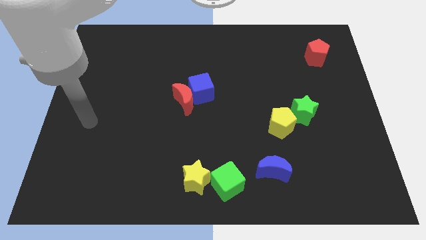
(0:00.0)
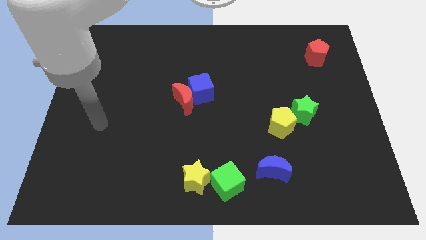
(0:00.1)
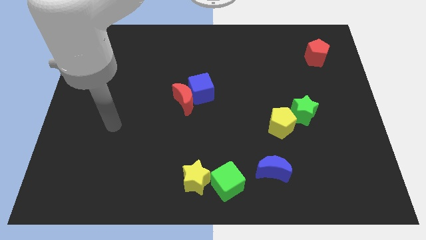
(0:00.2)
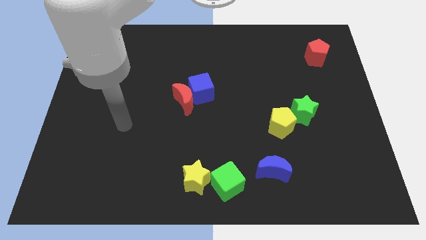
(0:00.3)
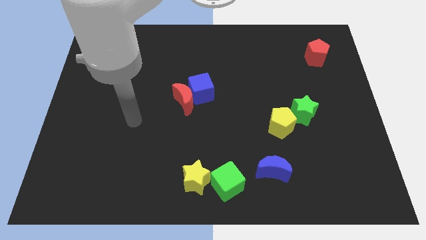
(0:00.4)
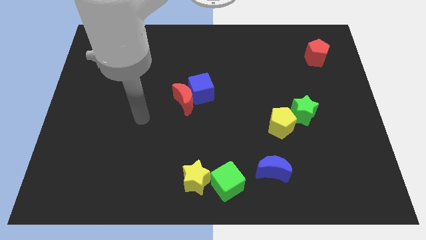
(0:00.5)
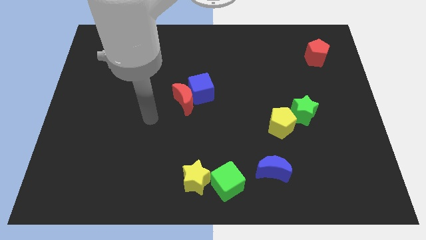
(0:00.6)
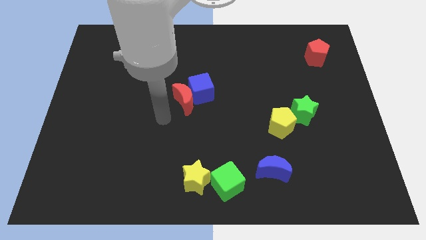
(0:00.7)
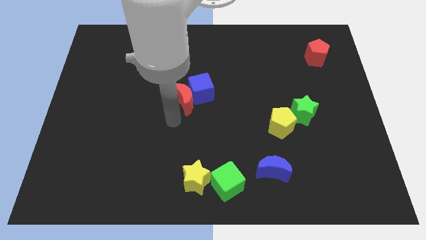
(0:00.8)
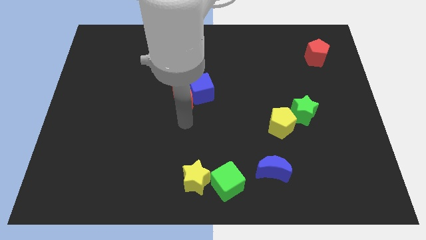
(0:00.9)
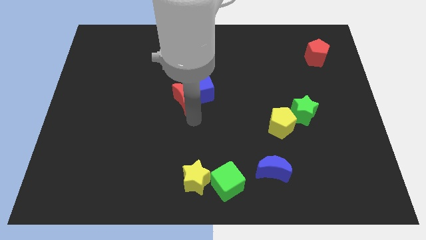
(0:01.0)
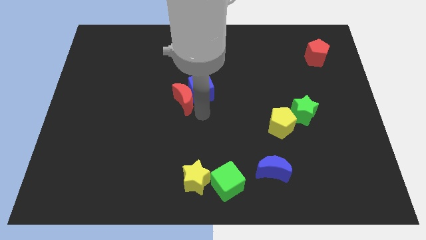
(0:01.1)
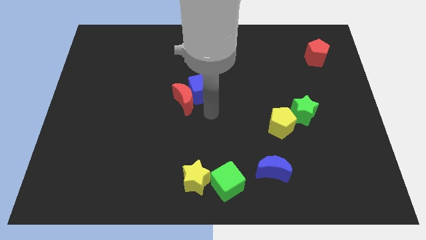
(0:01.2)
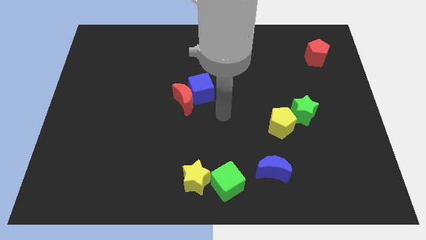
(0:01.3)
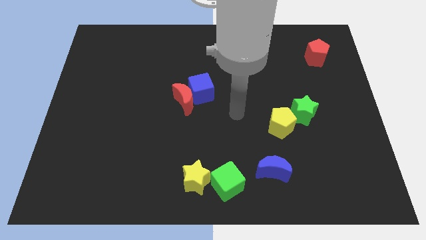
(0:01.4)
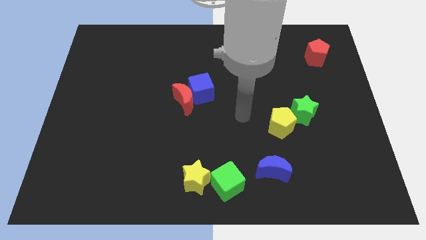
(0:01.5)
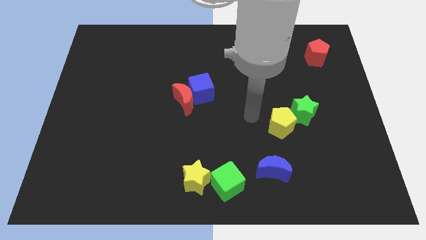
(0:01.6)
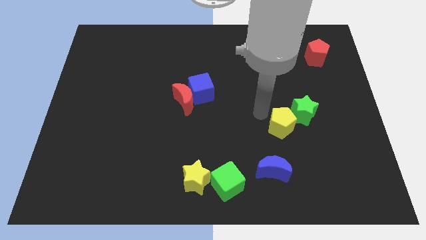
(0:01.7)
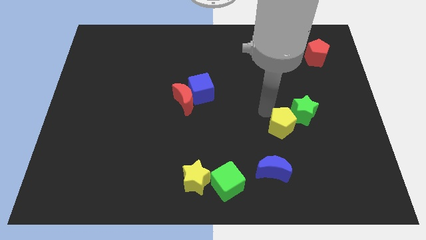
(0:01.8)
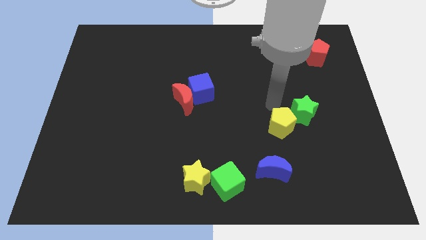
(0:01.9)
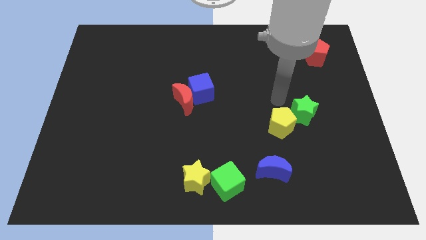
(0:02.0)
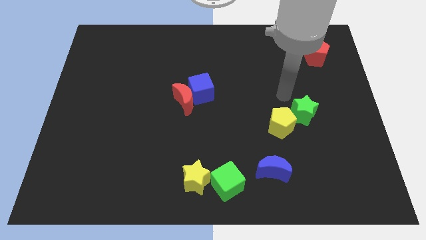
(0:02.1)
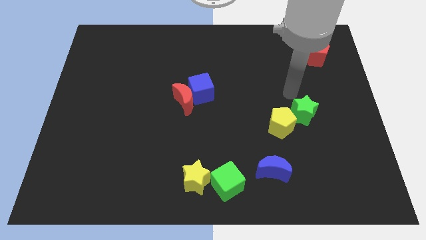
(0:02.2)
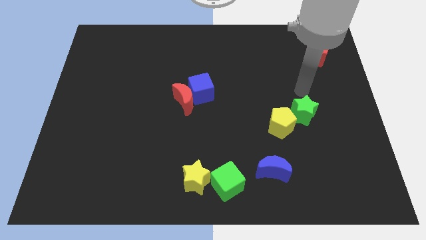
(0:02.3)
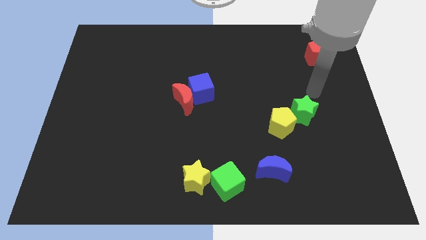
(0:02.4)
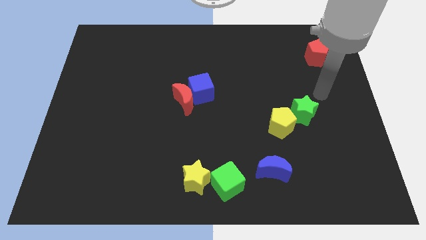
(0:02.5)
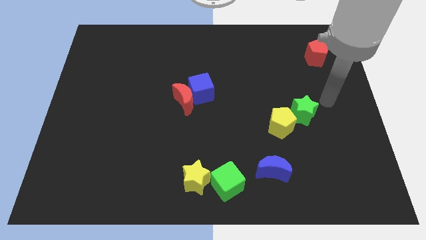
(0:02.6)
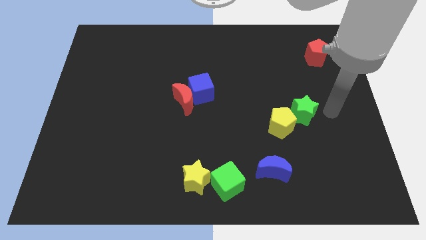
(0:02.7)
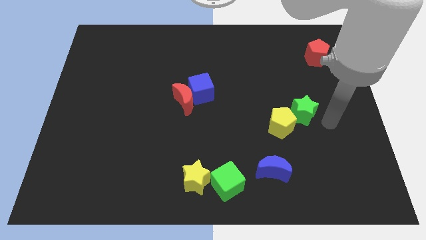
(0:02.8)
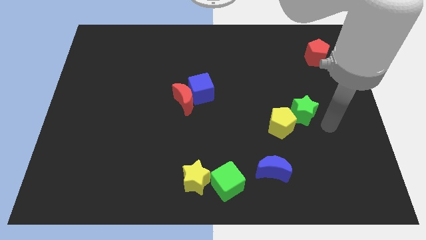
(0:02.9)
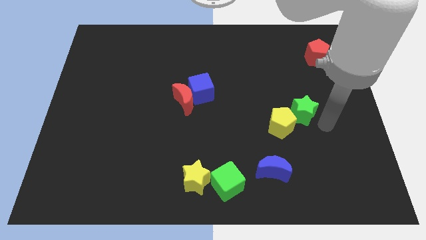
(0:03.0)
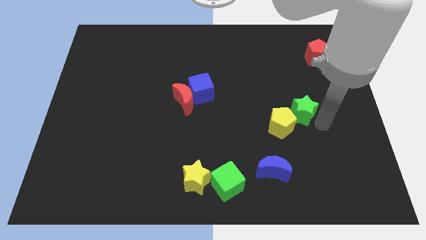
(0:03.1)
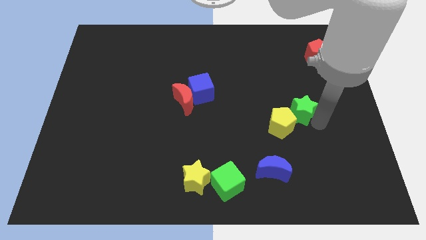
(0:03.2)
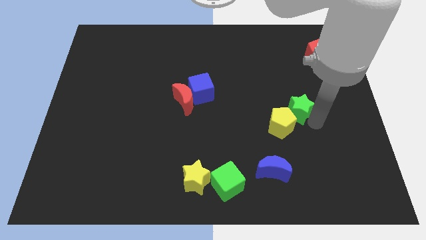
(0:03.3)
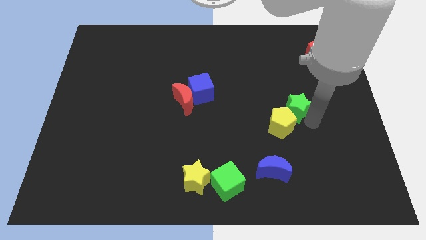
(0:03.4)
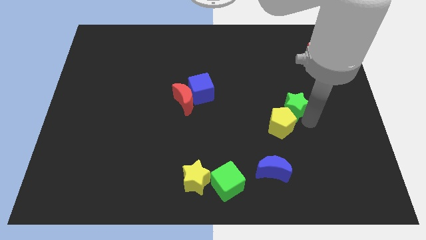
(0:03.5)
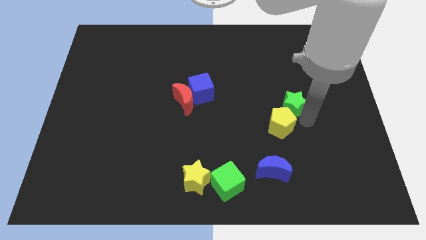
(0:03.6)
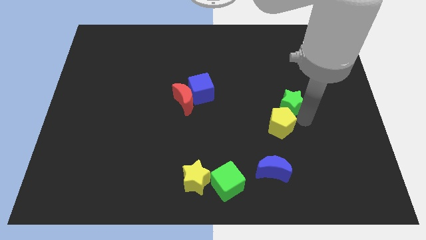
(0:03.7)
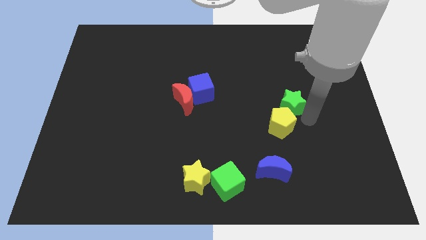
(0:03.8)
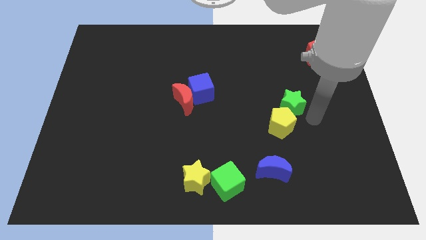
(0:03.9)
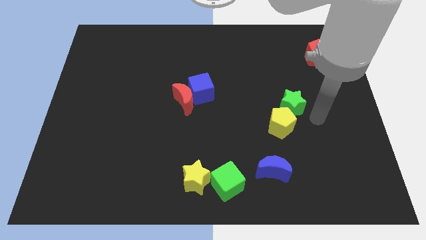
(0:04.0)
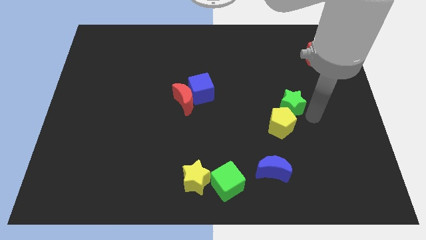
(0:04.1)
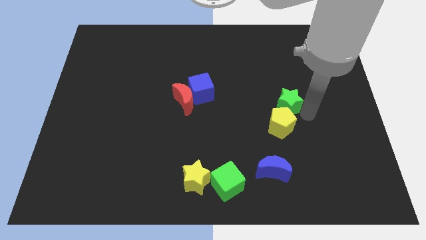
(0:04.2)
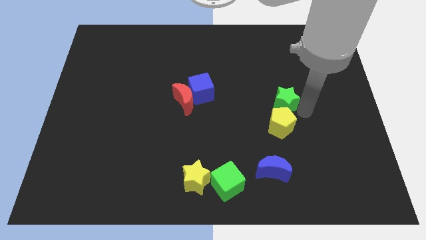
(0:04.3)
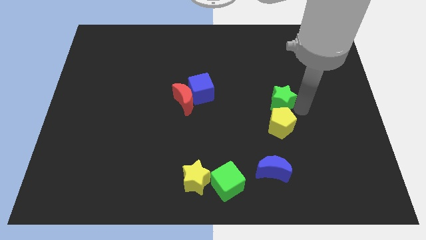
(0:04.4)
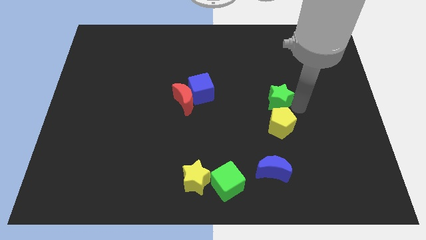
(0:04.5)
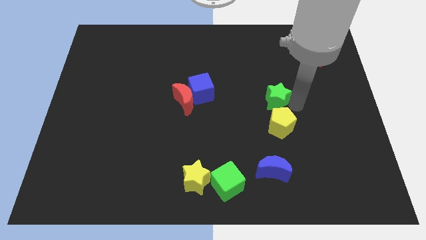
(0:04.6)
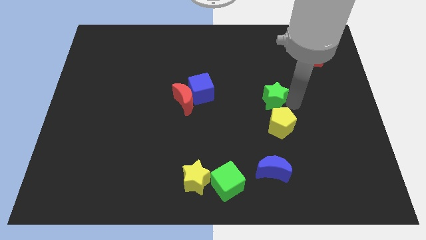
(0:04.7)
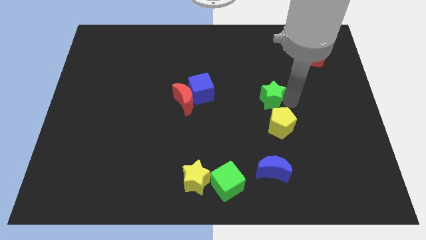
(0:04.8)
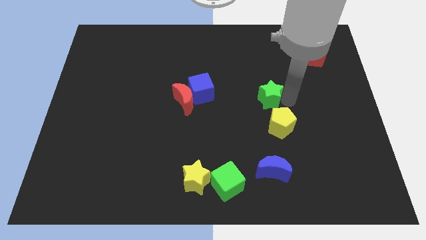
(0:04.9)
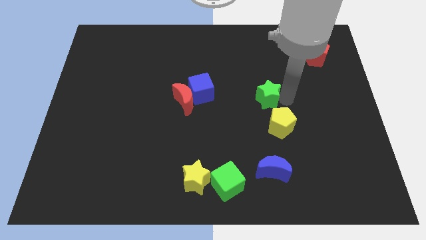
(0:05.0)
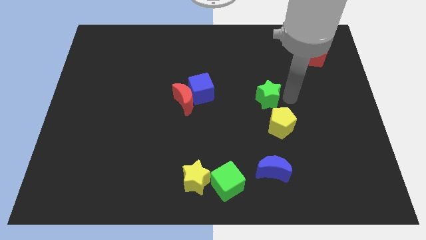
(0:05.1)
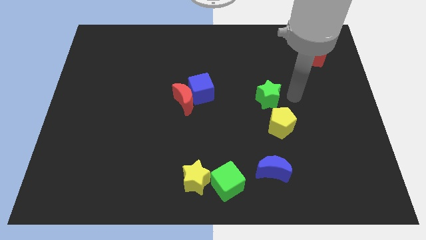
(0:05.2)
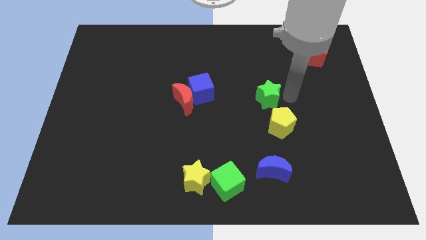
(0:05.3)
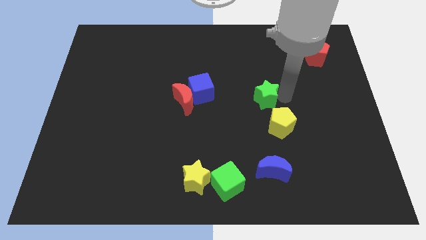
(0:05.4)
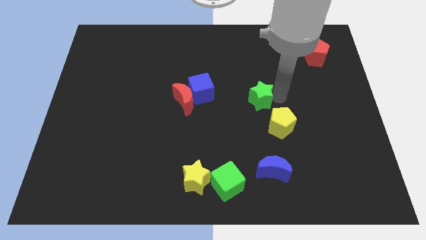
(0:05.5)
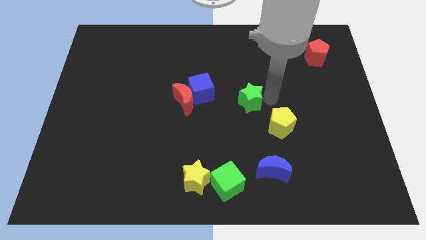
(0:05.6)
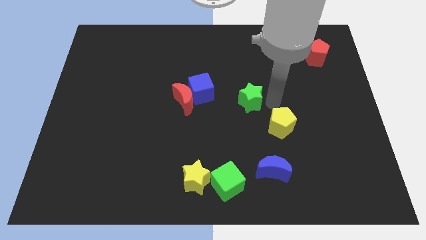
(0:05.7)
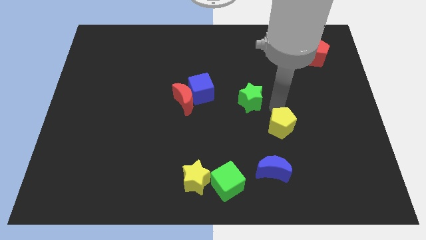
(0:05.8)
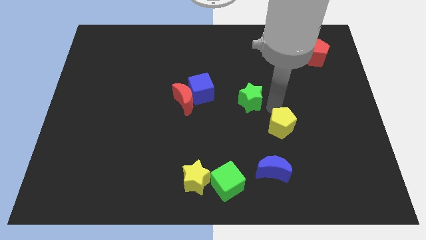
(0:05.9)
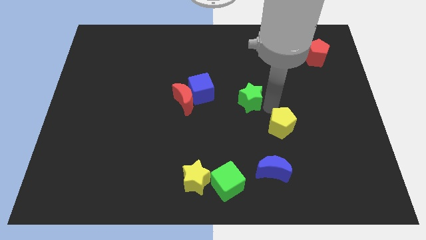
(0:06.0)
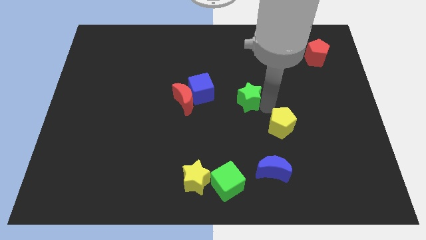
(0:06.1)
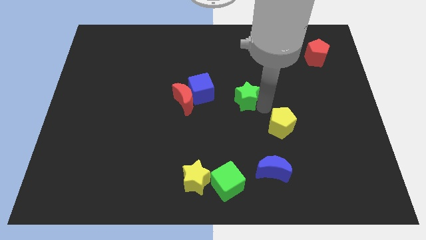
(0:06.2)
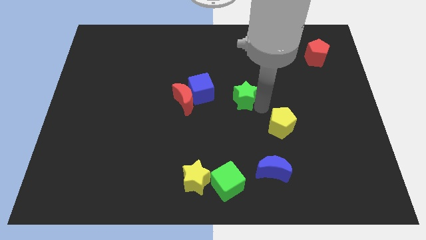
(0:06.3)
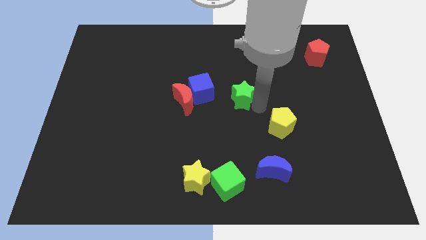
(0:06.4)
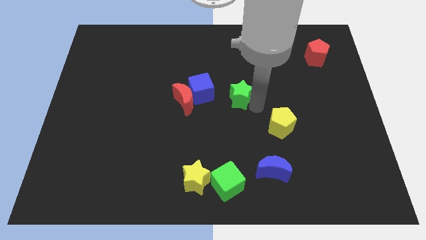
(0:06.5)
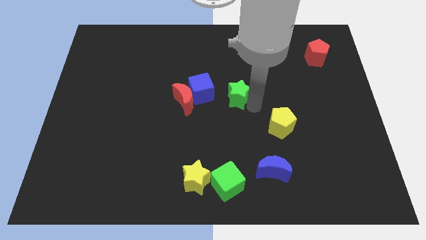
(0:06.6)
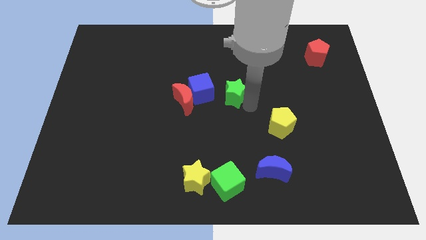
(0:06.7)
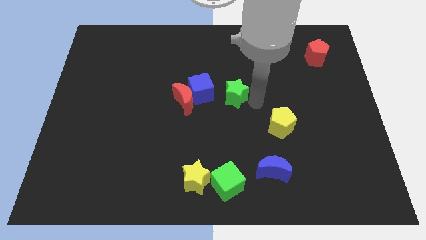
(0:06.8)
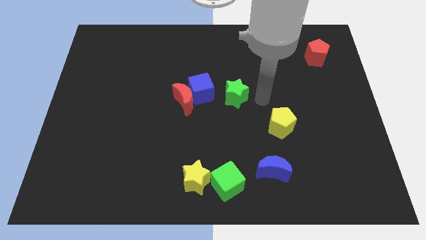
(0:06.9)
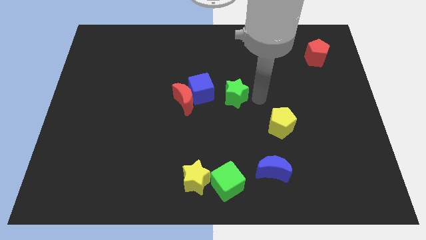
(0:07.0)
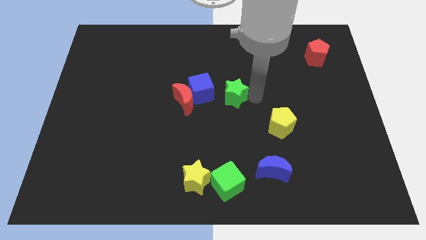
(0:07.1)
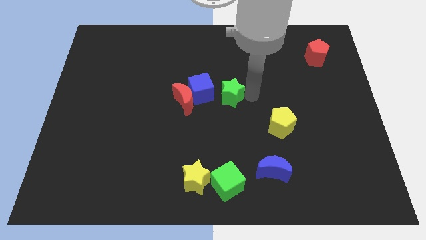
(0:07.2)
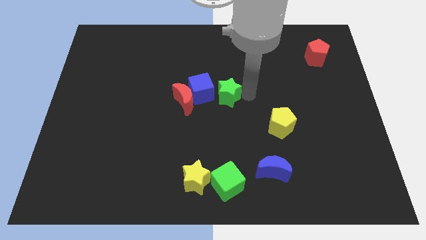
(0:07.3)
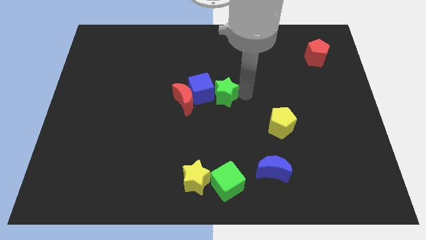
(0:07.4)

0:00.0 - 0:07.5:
push the green star to the blue cube
